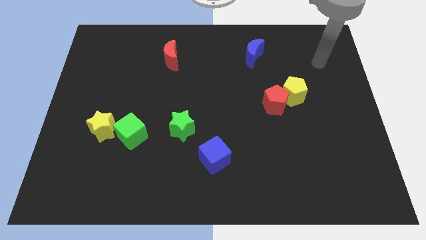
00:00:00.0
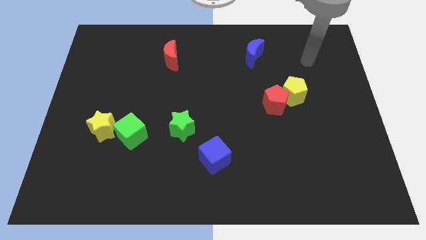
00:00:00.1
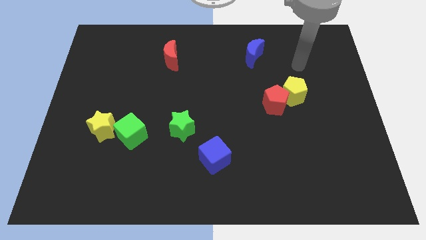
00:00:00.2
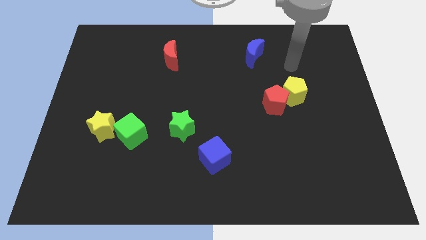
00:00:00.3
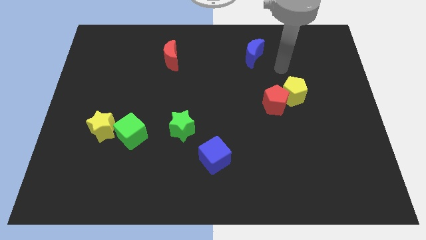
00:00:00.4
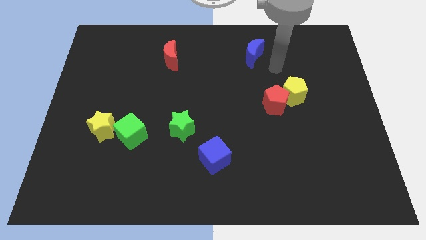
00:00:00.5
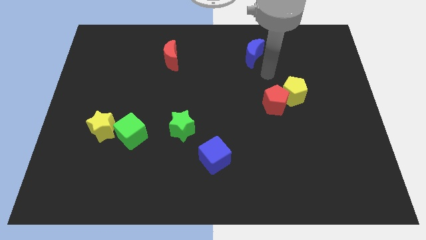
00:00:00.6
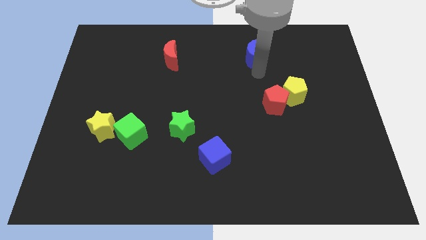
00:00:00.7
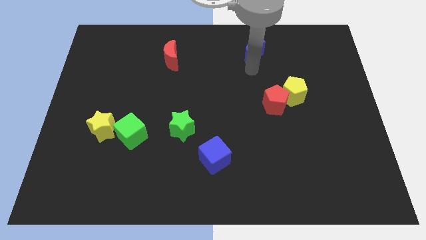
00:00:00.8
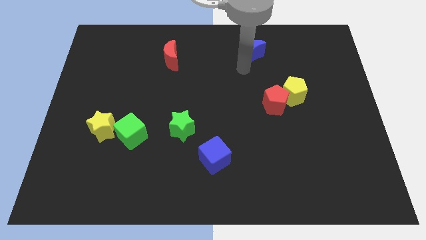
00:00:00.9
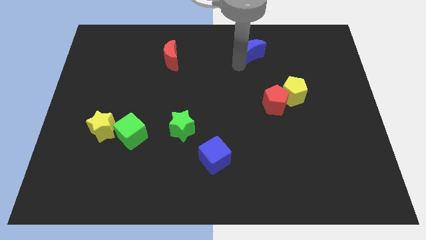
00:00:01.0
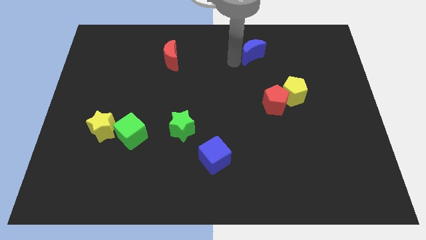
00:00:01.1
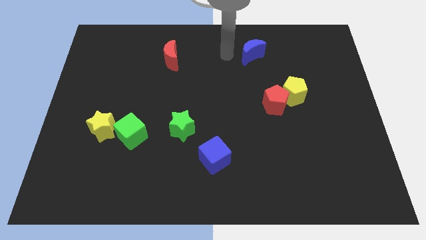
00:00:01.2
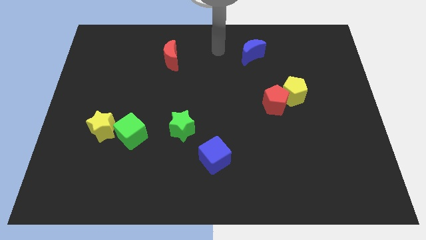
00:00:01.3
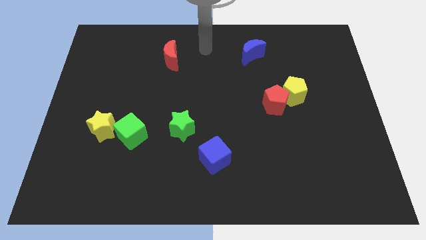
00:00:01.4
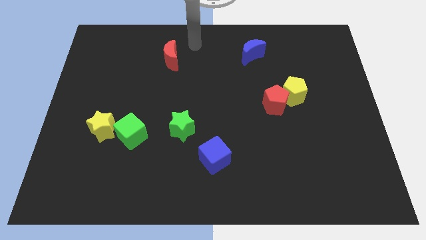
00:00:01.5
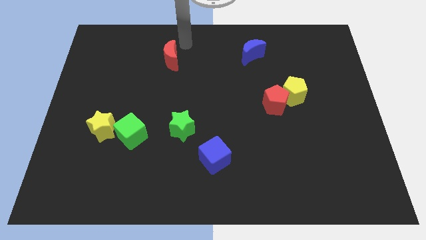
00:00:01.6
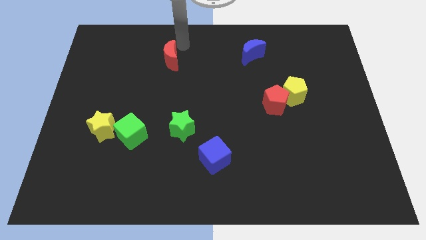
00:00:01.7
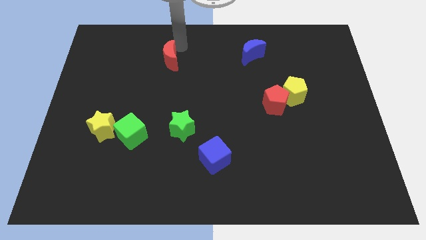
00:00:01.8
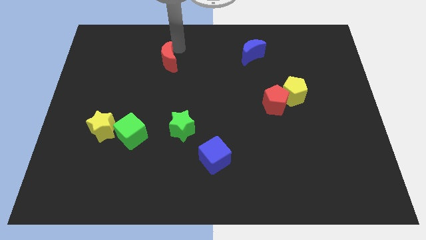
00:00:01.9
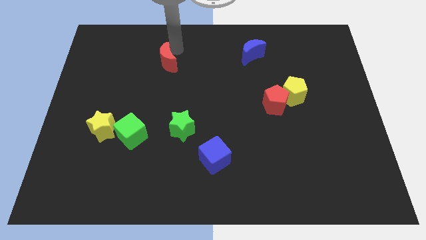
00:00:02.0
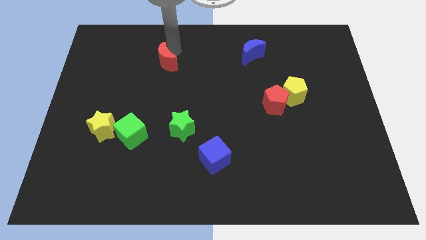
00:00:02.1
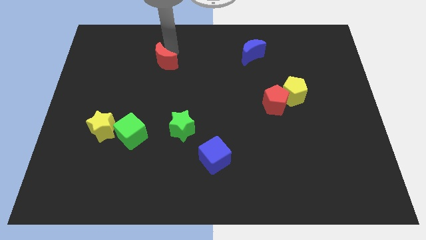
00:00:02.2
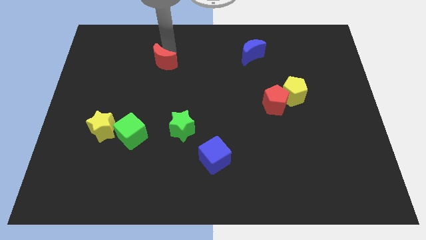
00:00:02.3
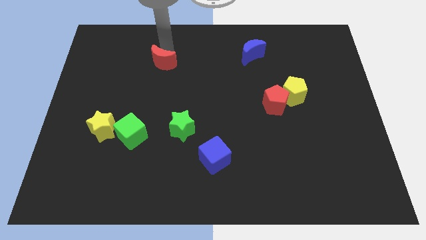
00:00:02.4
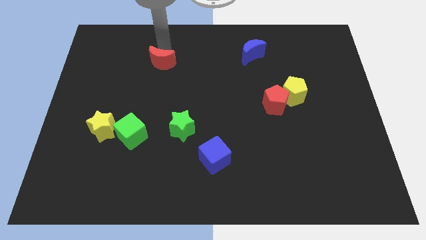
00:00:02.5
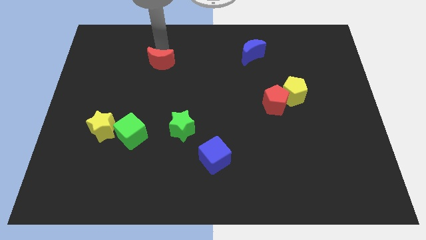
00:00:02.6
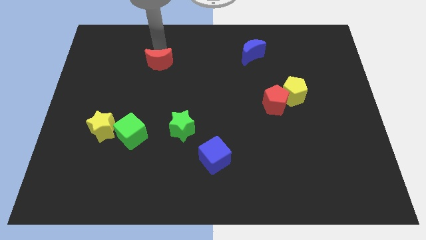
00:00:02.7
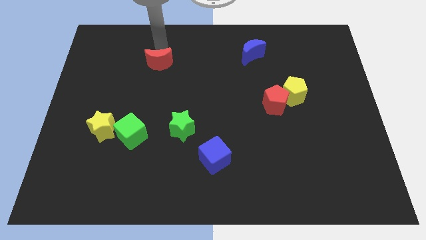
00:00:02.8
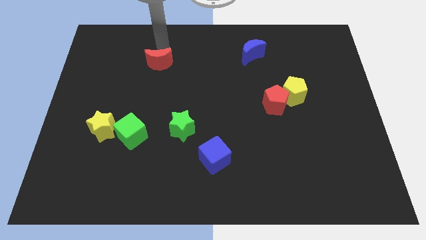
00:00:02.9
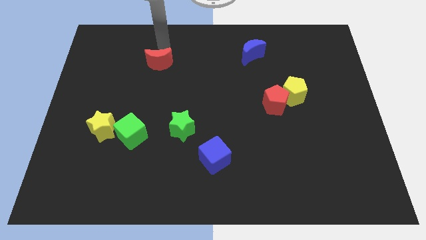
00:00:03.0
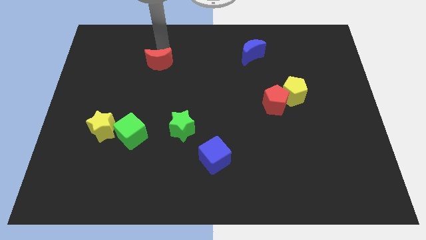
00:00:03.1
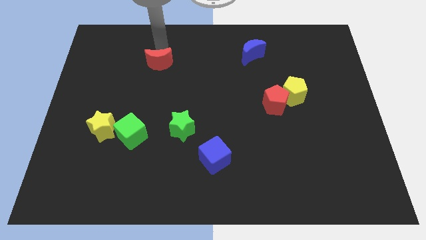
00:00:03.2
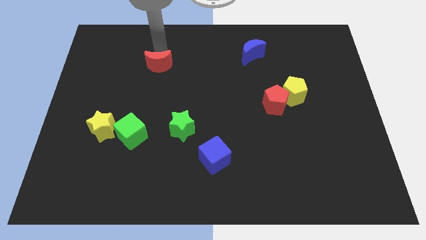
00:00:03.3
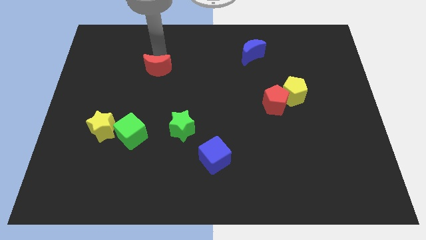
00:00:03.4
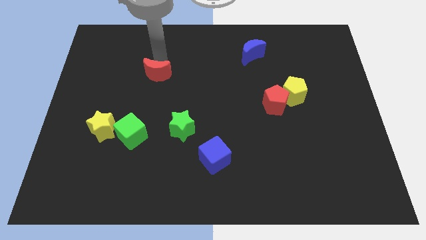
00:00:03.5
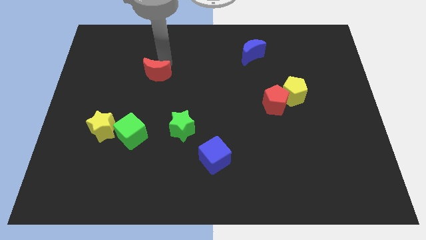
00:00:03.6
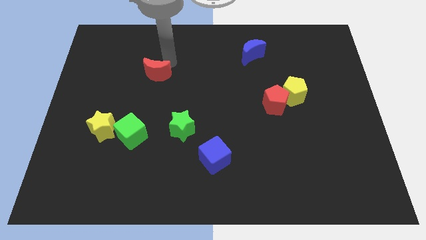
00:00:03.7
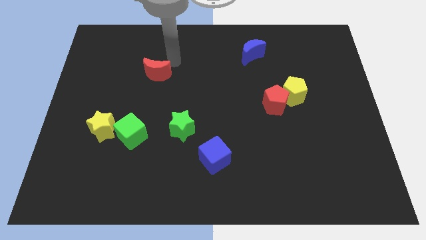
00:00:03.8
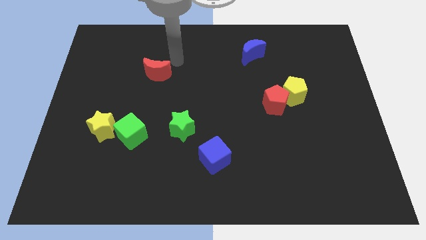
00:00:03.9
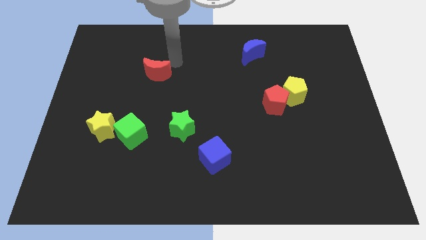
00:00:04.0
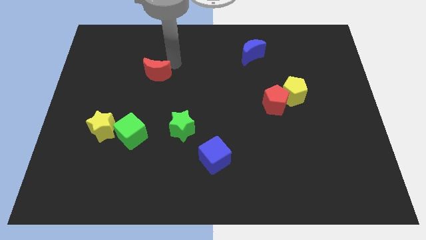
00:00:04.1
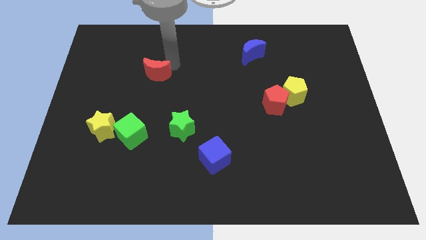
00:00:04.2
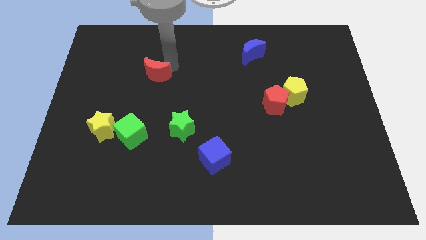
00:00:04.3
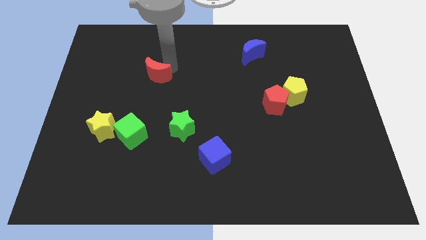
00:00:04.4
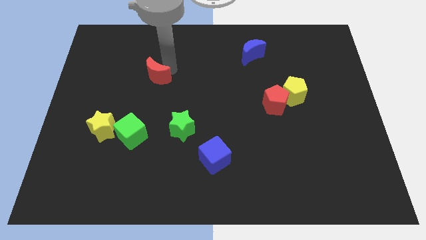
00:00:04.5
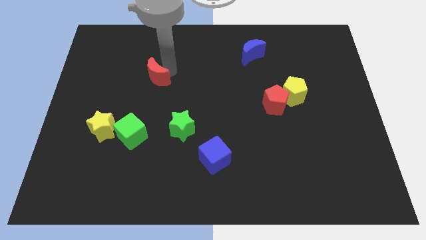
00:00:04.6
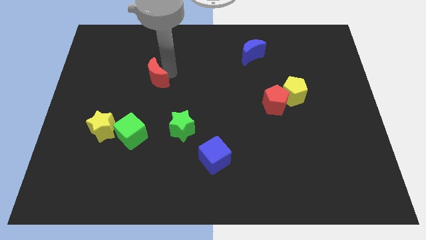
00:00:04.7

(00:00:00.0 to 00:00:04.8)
move the red moon down and left diagonally a little

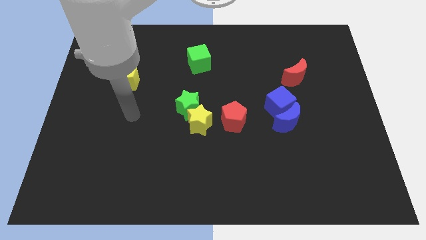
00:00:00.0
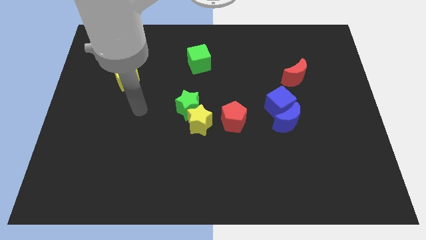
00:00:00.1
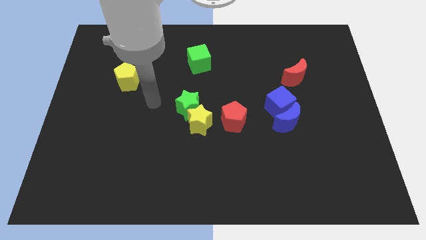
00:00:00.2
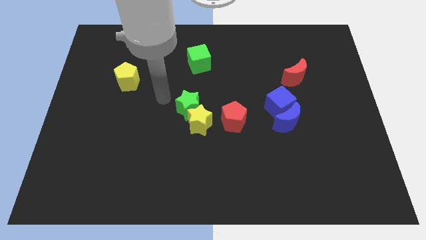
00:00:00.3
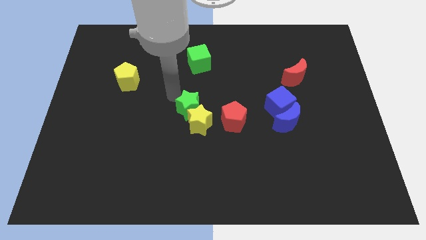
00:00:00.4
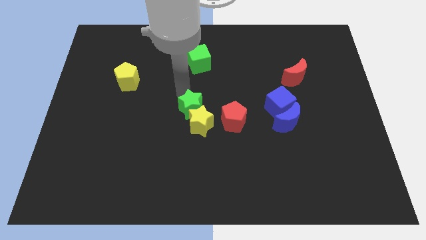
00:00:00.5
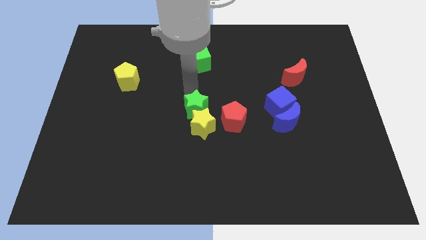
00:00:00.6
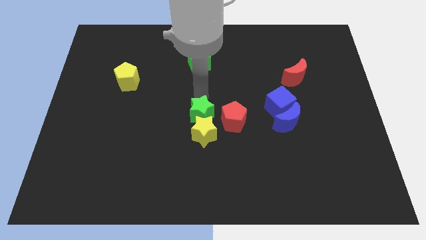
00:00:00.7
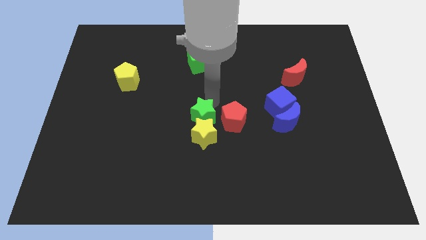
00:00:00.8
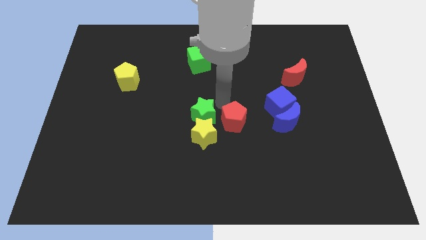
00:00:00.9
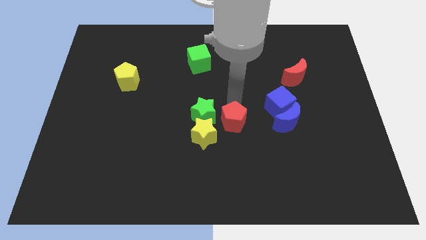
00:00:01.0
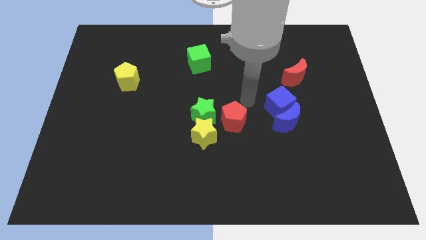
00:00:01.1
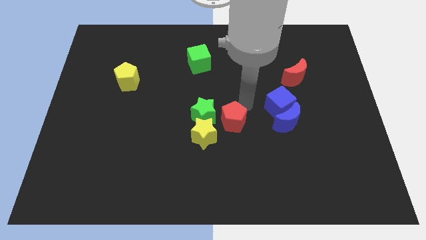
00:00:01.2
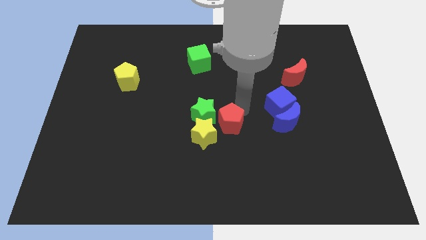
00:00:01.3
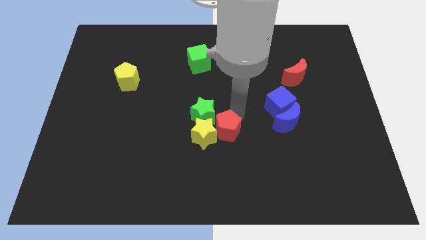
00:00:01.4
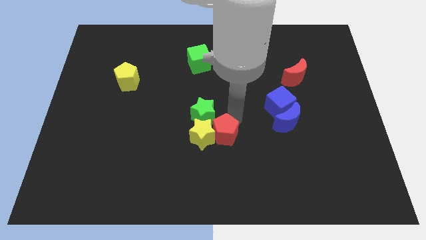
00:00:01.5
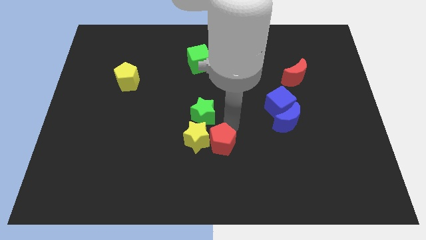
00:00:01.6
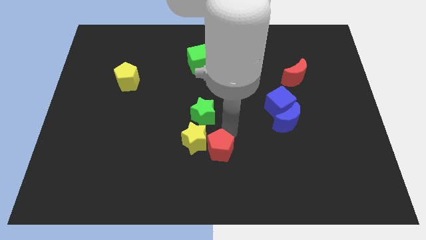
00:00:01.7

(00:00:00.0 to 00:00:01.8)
slide the red pentagon down and then left somewhat

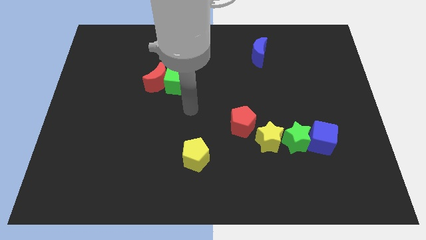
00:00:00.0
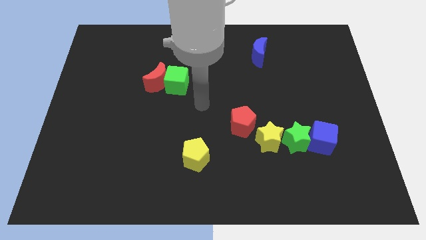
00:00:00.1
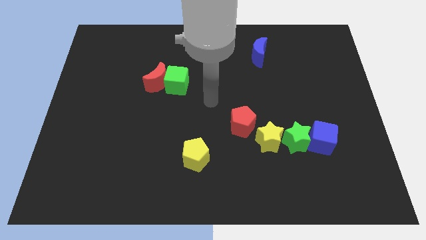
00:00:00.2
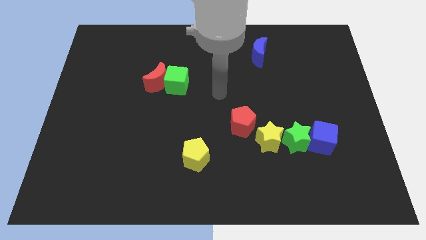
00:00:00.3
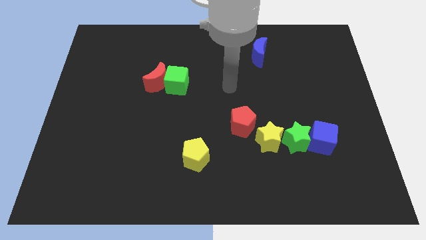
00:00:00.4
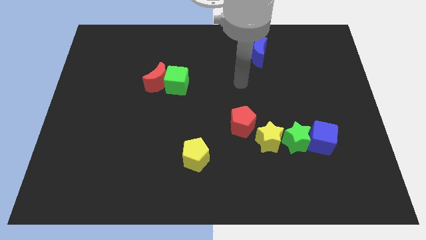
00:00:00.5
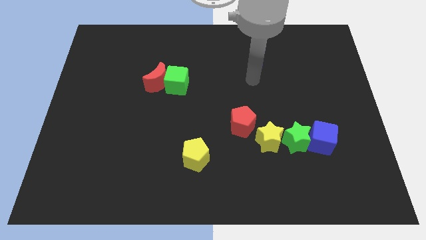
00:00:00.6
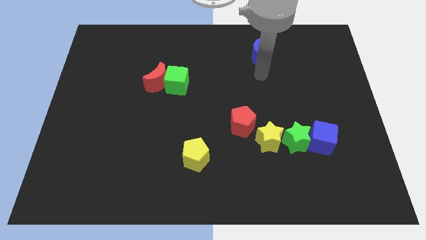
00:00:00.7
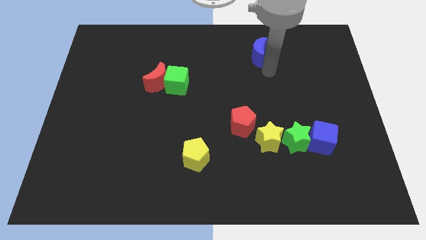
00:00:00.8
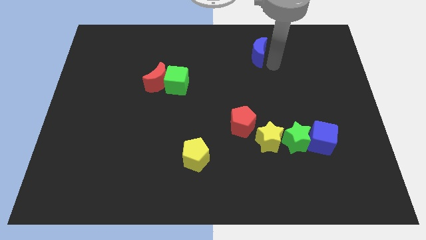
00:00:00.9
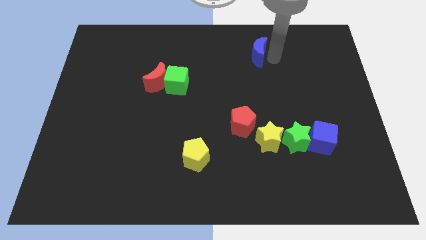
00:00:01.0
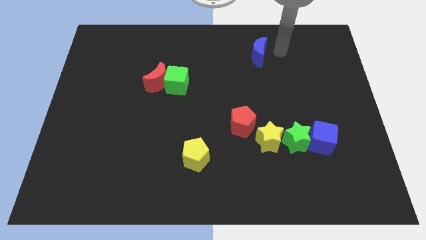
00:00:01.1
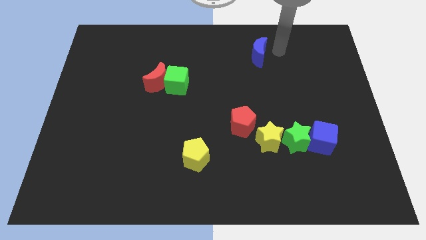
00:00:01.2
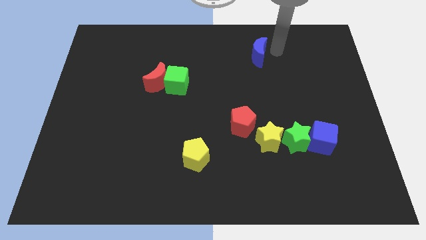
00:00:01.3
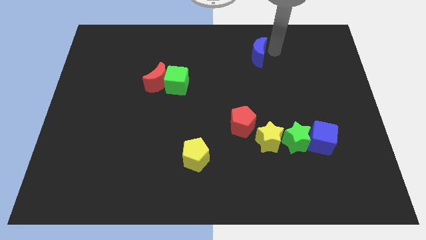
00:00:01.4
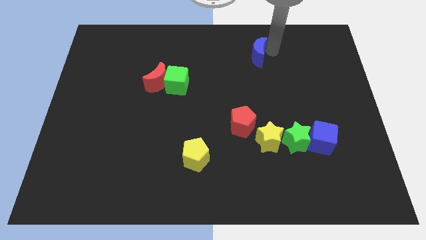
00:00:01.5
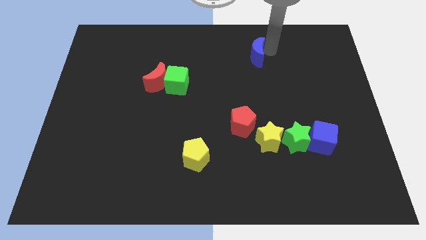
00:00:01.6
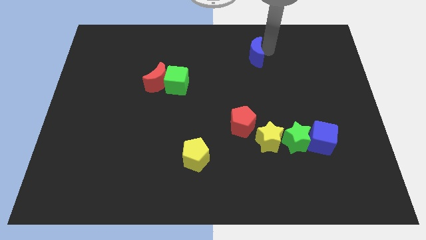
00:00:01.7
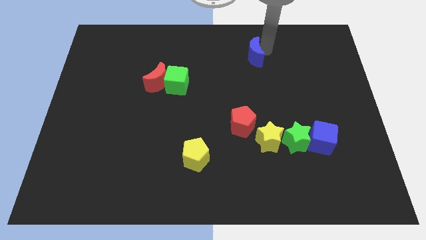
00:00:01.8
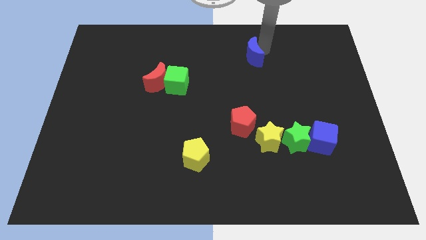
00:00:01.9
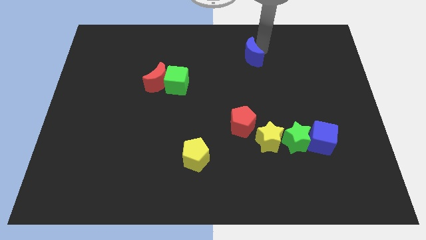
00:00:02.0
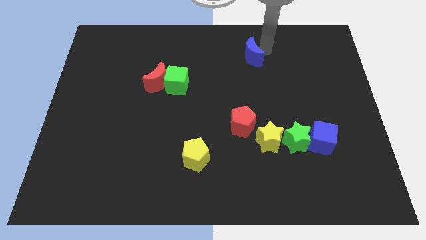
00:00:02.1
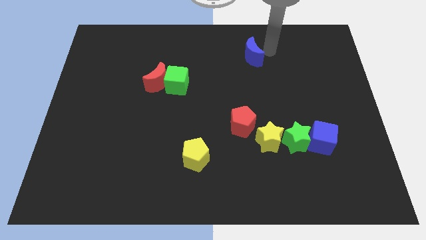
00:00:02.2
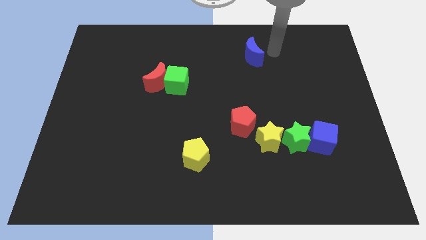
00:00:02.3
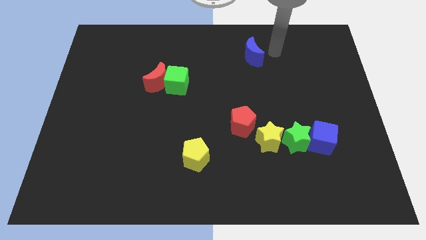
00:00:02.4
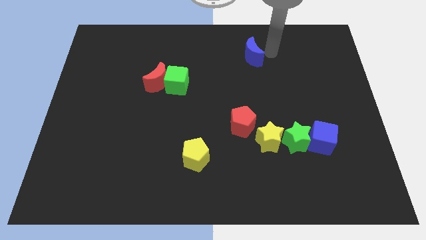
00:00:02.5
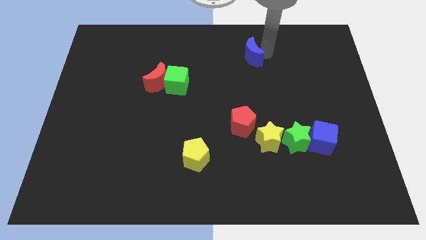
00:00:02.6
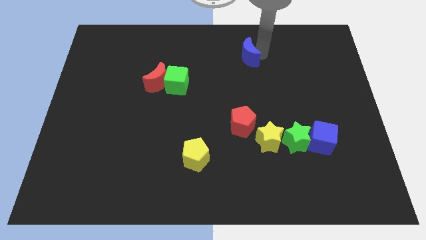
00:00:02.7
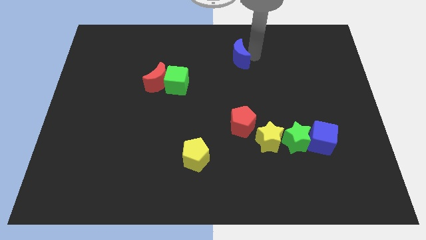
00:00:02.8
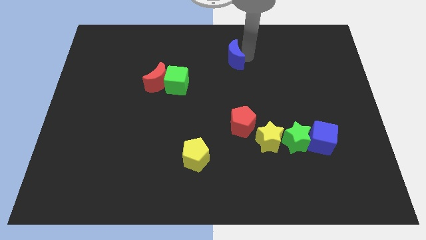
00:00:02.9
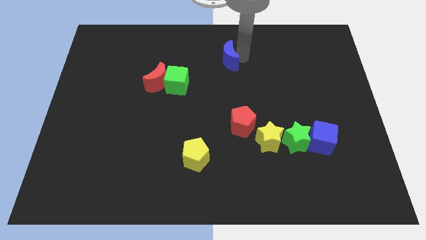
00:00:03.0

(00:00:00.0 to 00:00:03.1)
push the blue moon slightly left
